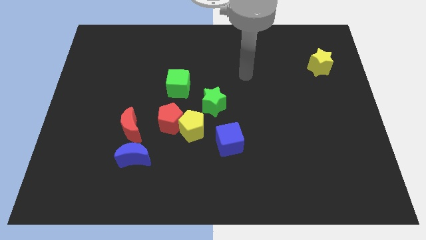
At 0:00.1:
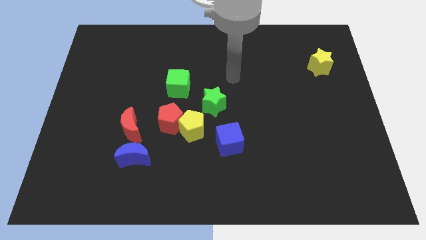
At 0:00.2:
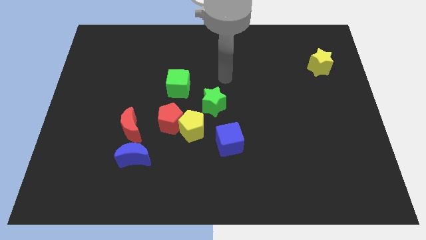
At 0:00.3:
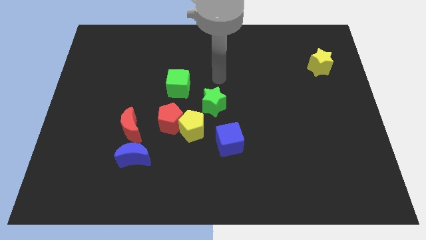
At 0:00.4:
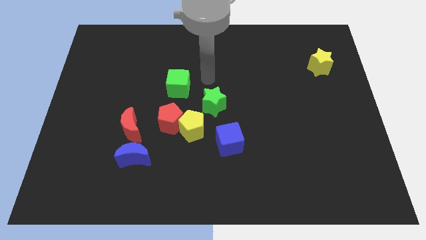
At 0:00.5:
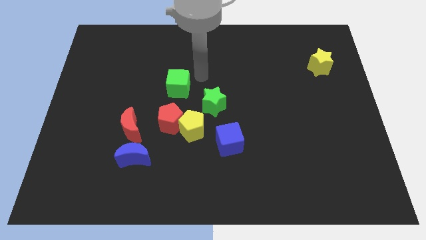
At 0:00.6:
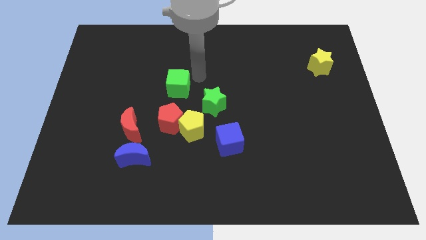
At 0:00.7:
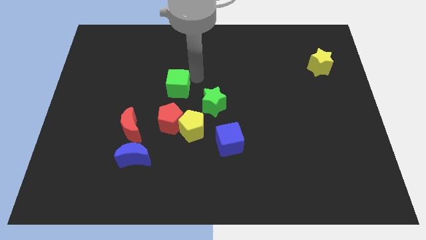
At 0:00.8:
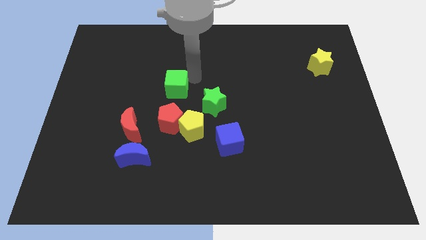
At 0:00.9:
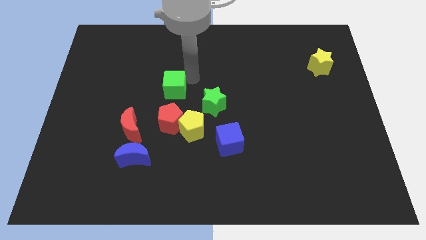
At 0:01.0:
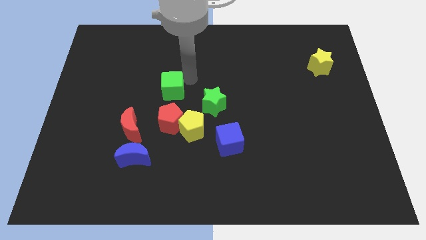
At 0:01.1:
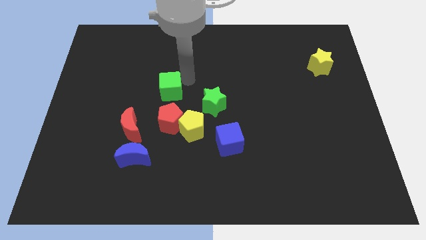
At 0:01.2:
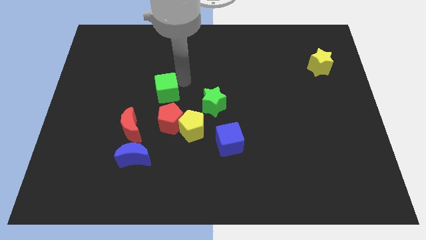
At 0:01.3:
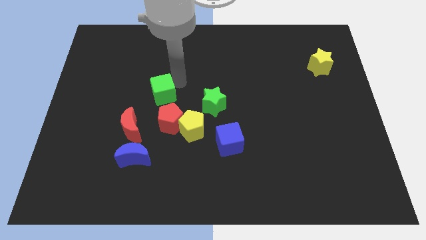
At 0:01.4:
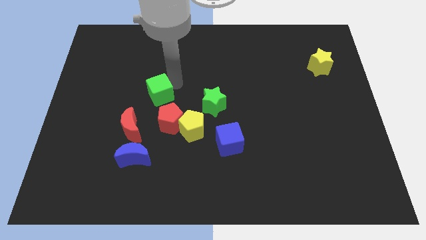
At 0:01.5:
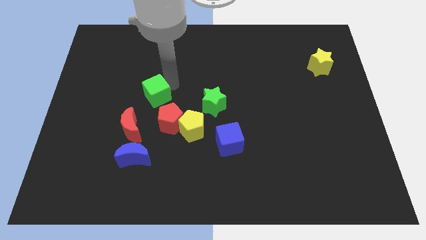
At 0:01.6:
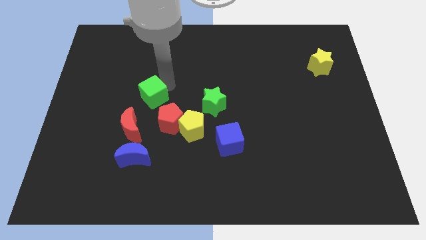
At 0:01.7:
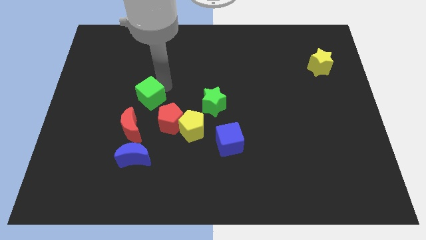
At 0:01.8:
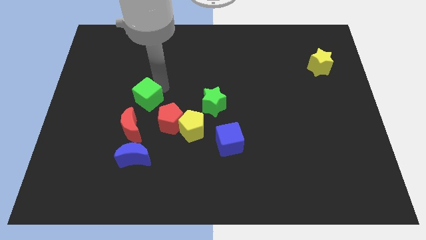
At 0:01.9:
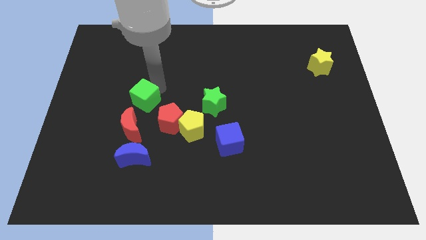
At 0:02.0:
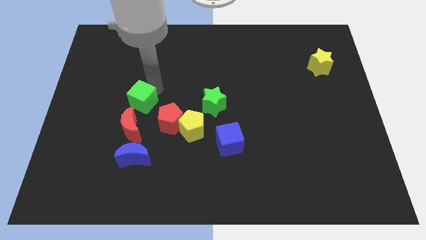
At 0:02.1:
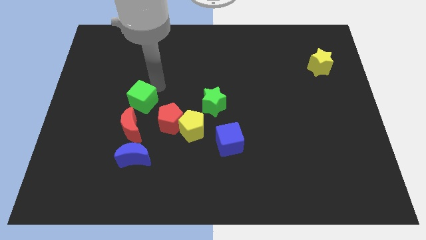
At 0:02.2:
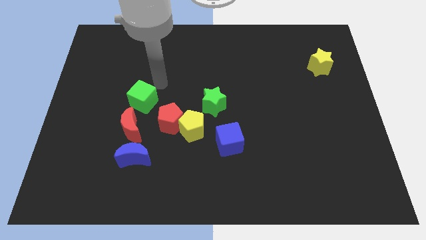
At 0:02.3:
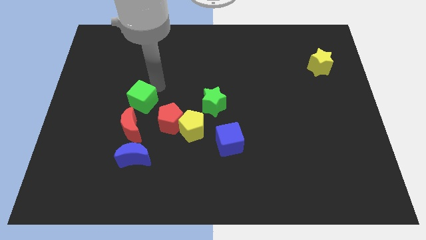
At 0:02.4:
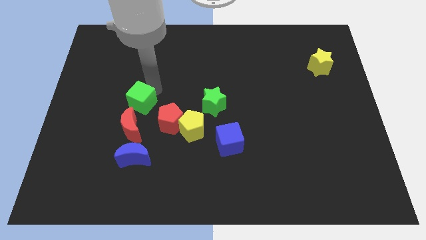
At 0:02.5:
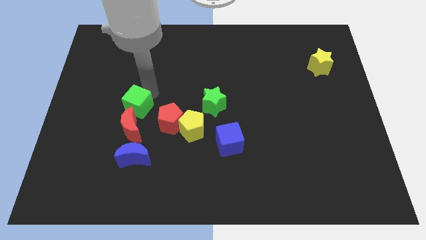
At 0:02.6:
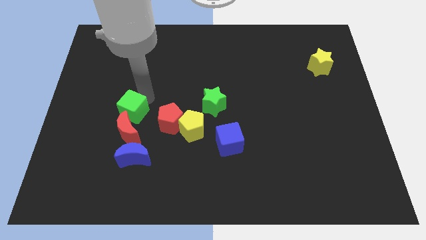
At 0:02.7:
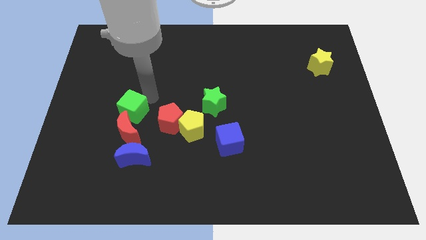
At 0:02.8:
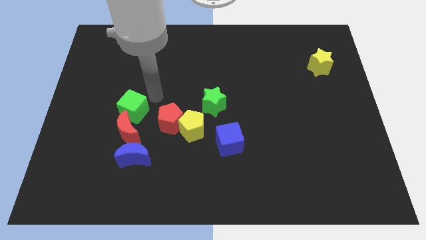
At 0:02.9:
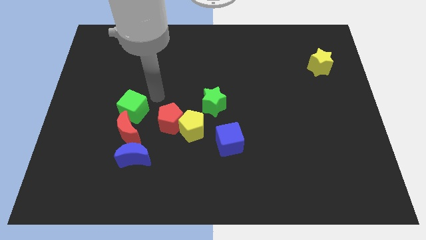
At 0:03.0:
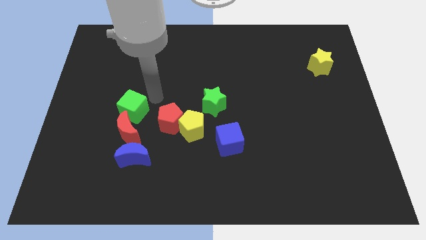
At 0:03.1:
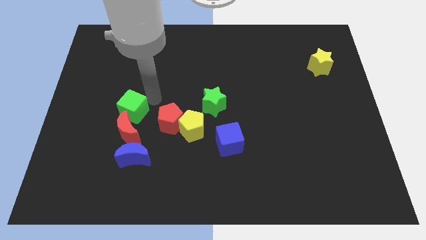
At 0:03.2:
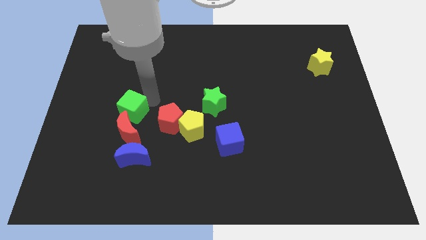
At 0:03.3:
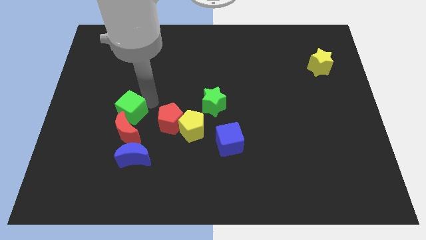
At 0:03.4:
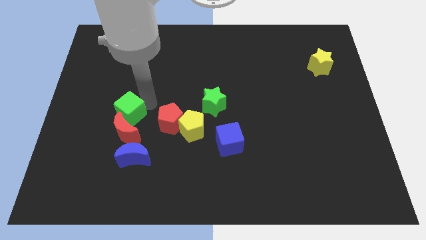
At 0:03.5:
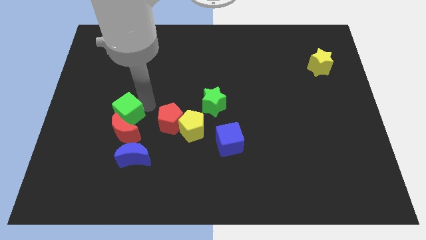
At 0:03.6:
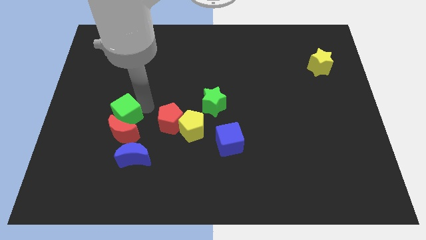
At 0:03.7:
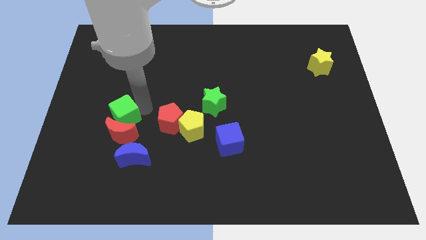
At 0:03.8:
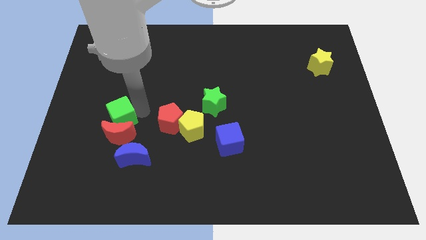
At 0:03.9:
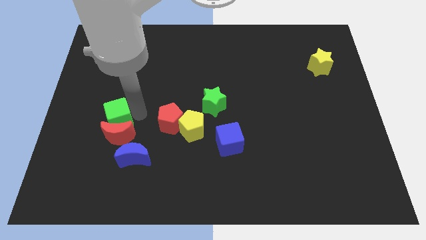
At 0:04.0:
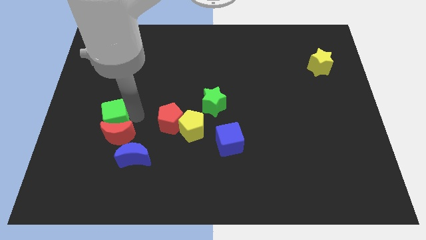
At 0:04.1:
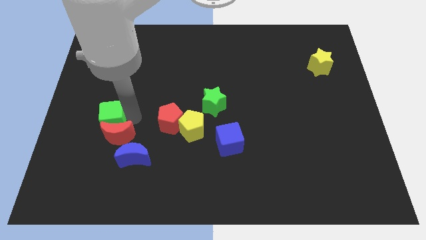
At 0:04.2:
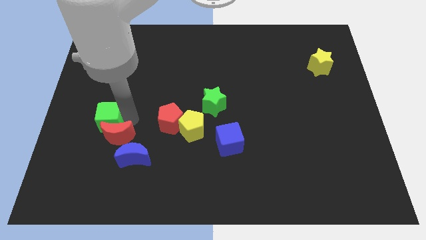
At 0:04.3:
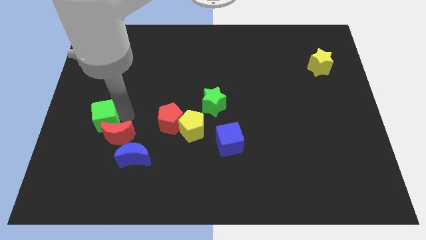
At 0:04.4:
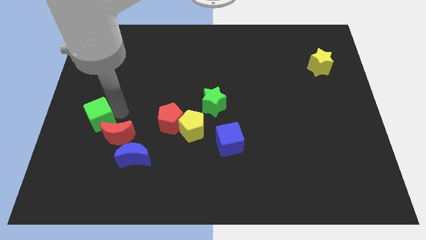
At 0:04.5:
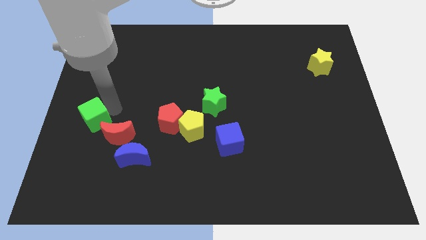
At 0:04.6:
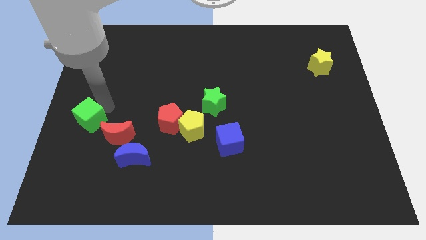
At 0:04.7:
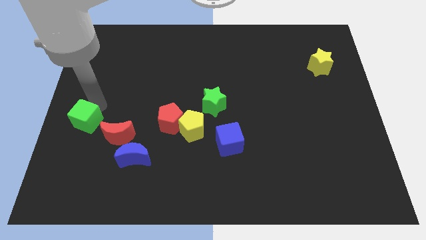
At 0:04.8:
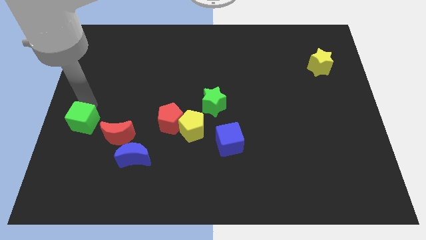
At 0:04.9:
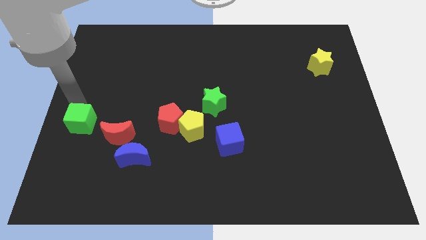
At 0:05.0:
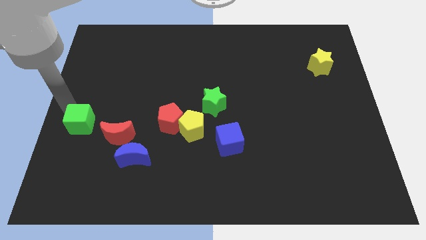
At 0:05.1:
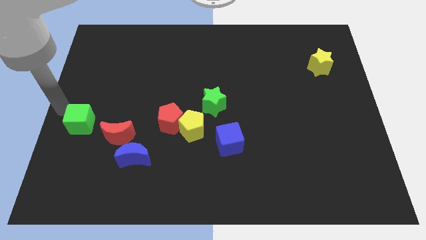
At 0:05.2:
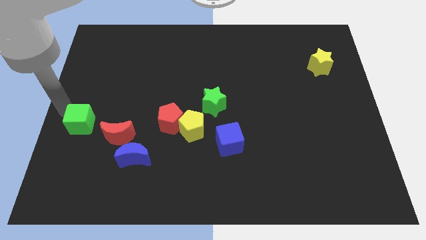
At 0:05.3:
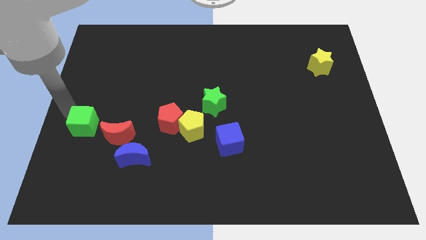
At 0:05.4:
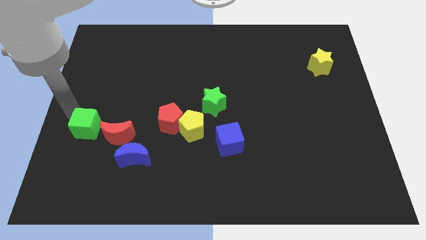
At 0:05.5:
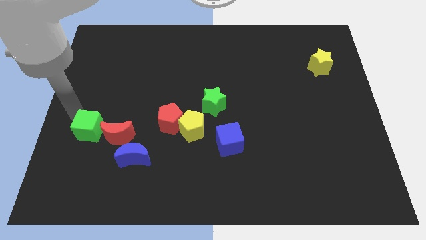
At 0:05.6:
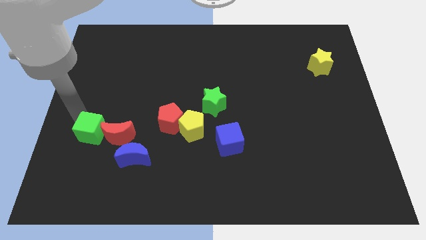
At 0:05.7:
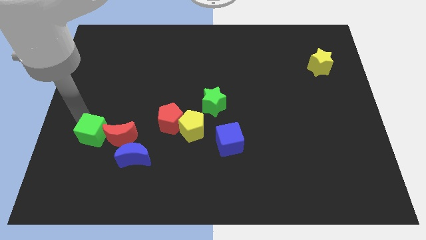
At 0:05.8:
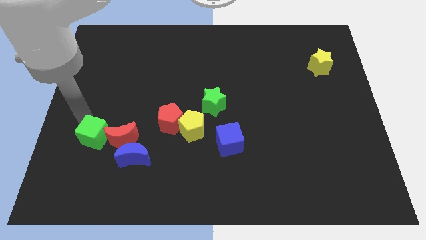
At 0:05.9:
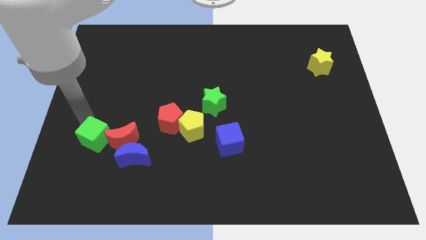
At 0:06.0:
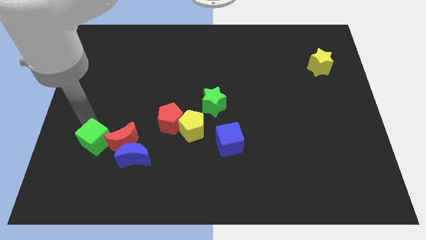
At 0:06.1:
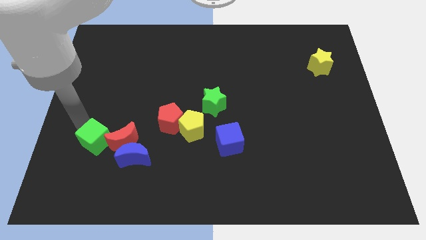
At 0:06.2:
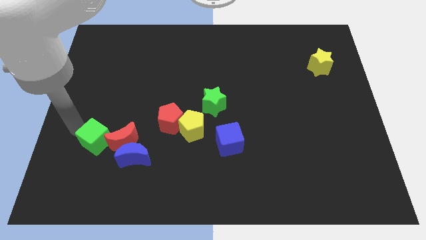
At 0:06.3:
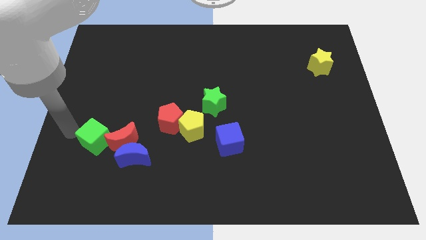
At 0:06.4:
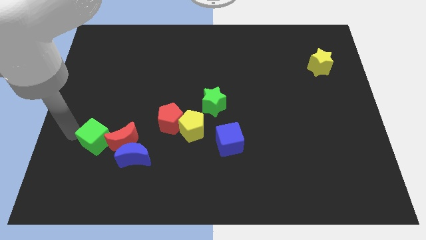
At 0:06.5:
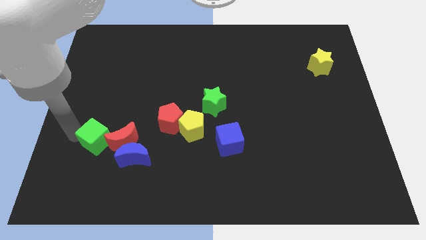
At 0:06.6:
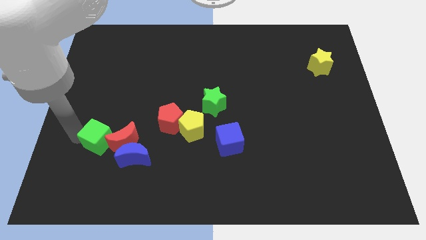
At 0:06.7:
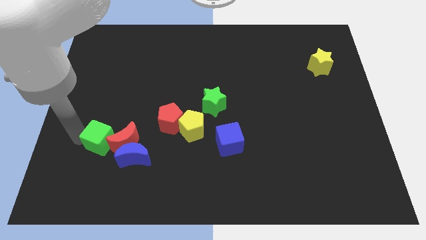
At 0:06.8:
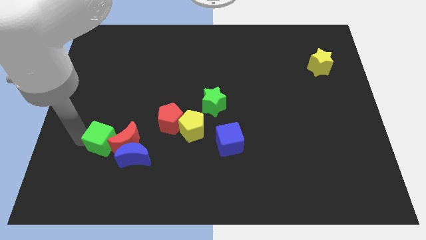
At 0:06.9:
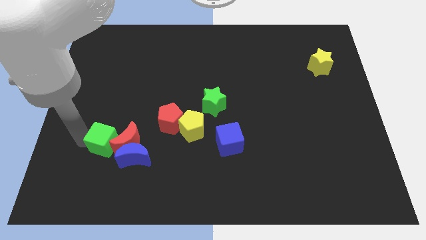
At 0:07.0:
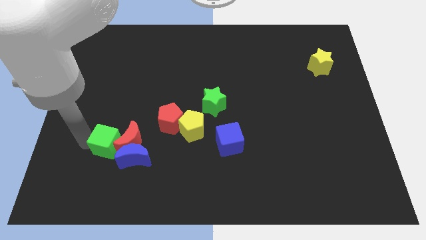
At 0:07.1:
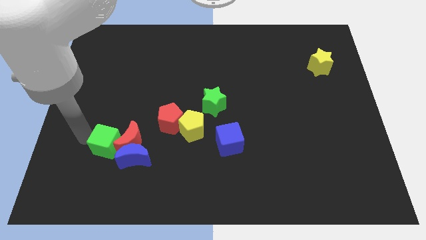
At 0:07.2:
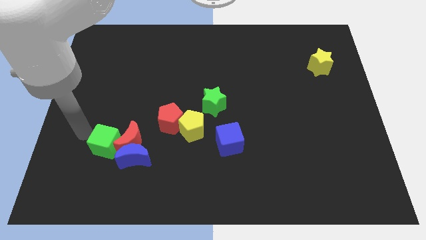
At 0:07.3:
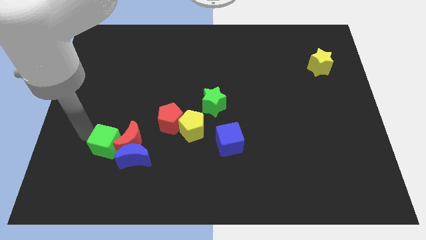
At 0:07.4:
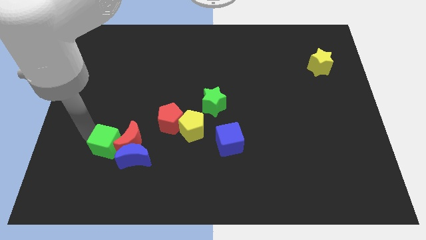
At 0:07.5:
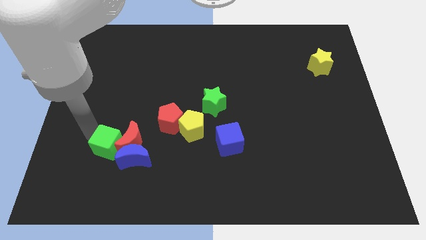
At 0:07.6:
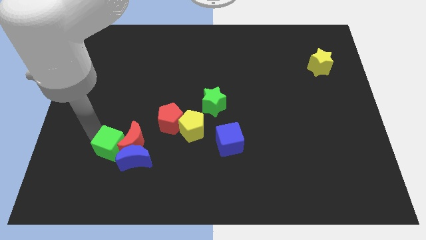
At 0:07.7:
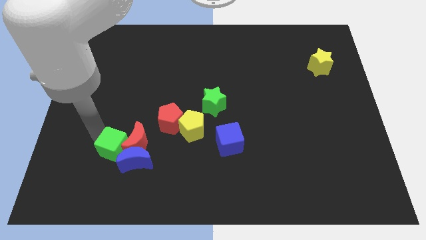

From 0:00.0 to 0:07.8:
put the green cube towards the blue moon

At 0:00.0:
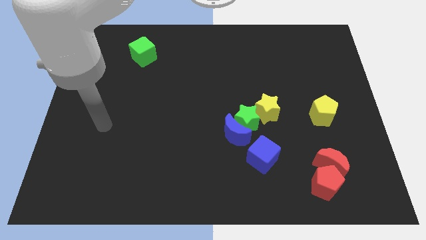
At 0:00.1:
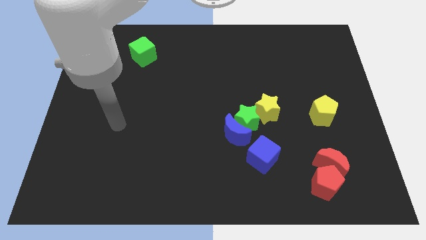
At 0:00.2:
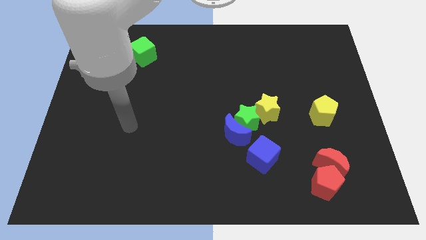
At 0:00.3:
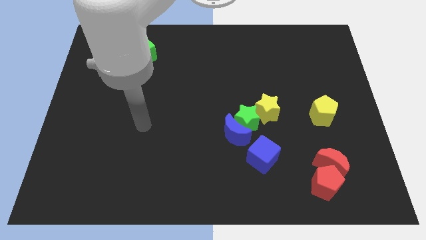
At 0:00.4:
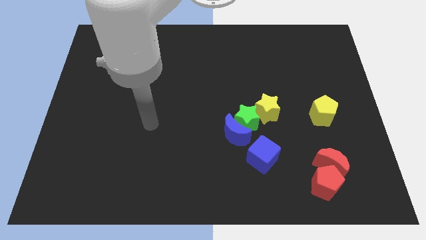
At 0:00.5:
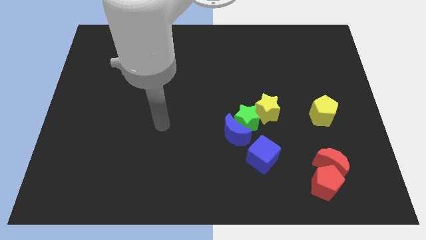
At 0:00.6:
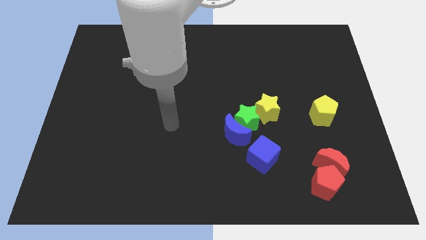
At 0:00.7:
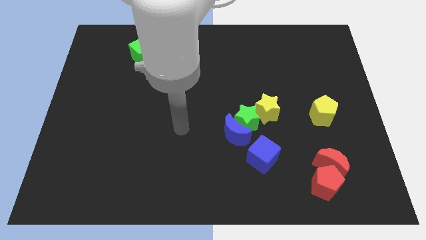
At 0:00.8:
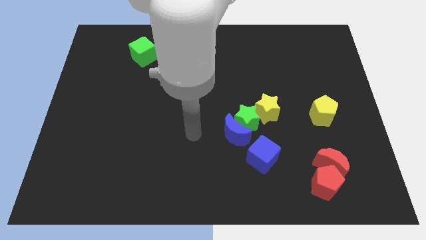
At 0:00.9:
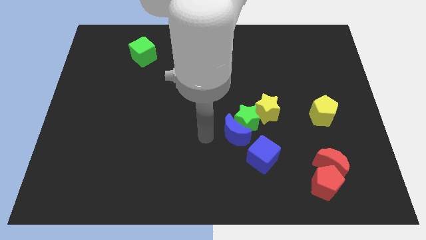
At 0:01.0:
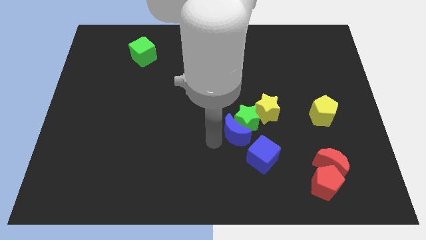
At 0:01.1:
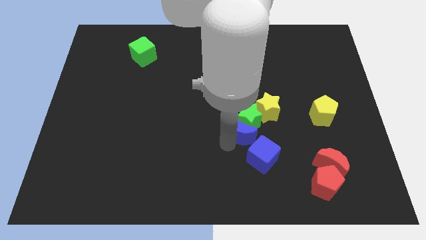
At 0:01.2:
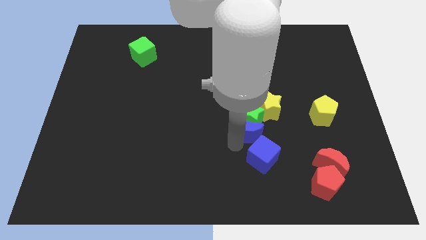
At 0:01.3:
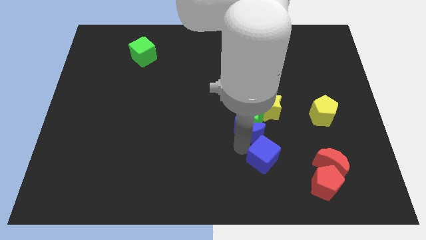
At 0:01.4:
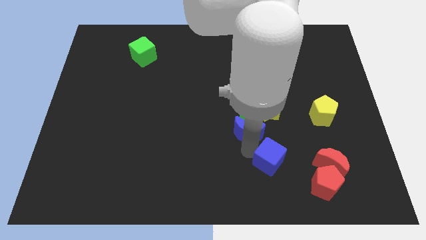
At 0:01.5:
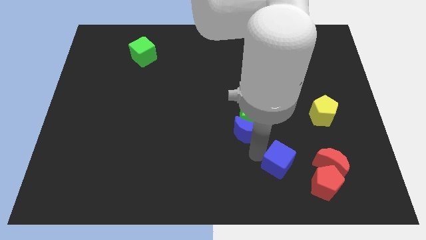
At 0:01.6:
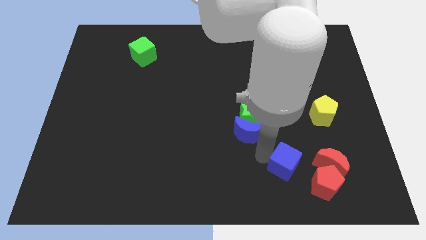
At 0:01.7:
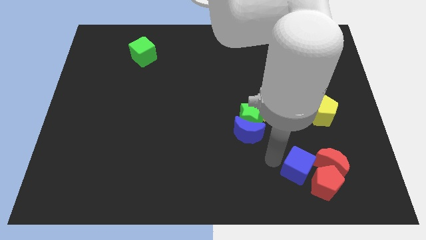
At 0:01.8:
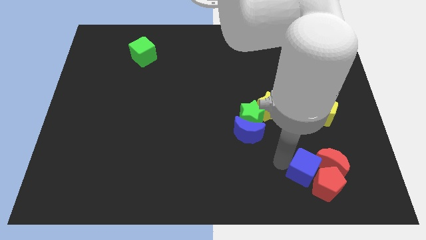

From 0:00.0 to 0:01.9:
slide the blue cube next to the red pentagon
